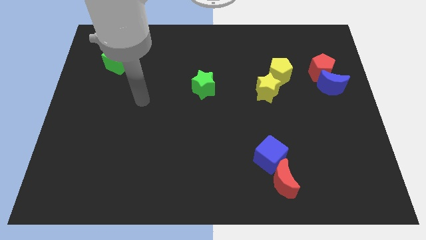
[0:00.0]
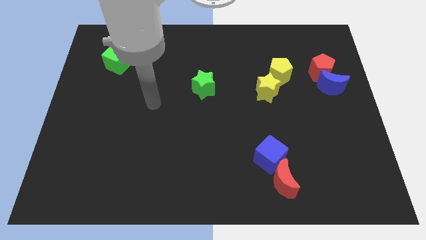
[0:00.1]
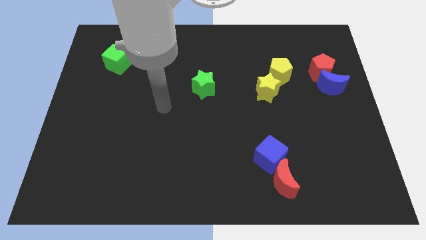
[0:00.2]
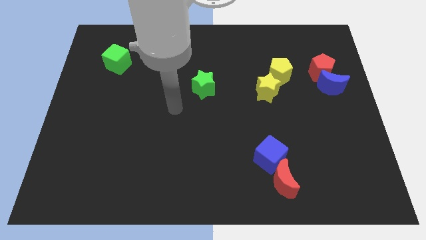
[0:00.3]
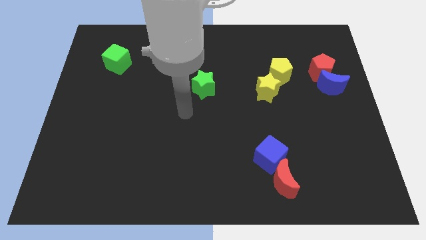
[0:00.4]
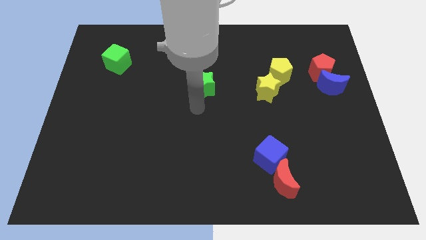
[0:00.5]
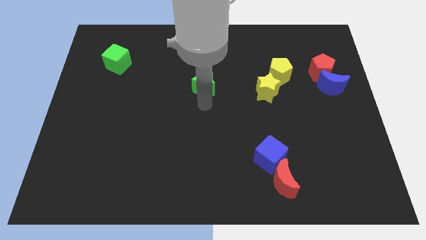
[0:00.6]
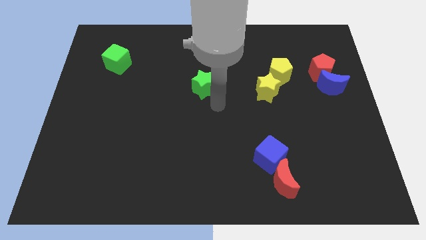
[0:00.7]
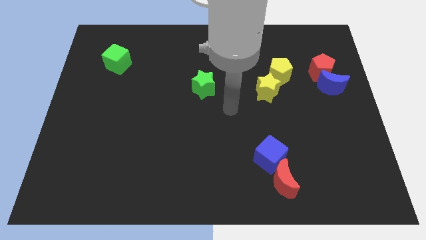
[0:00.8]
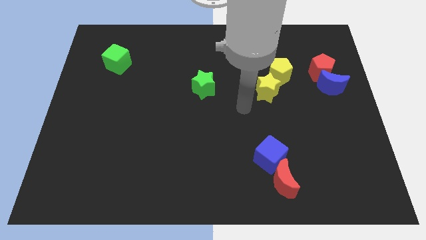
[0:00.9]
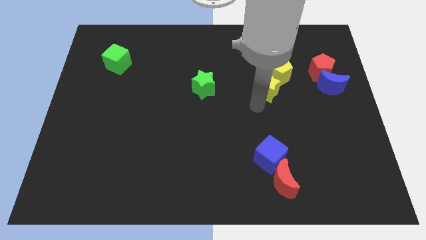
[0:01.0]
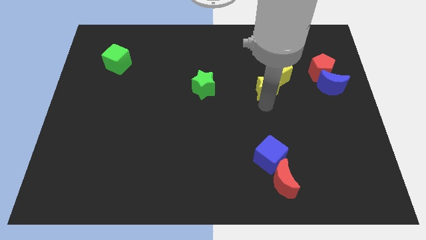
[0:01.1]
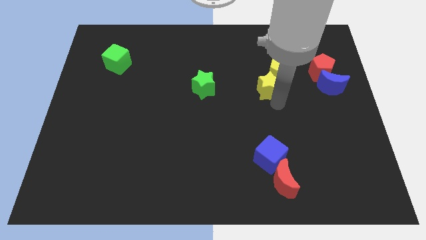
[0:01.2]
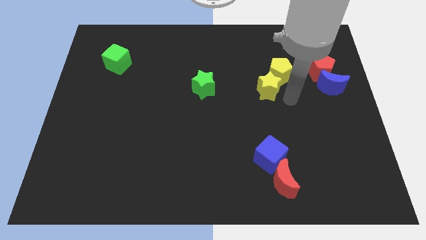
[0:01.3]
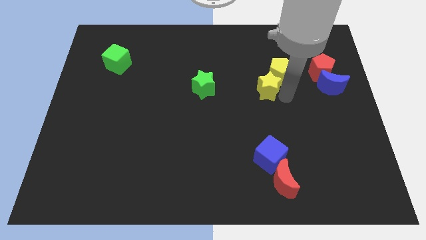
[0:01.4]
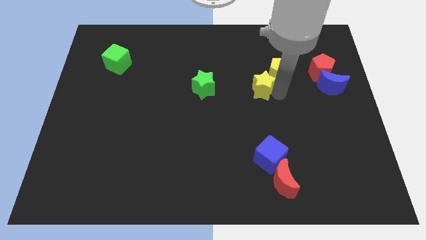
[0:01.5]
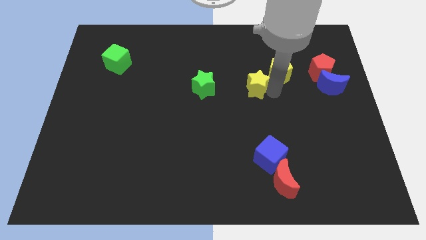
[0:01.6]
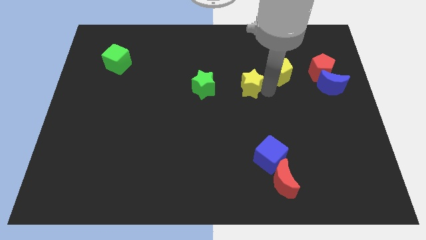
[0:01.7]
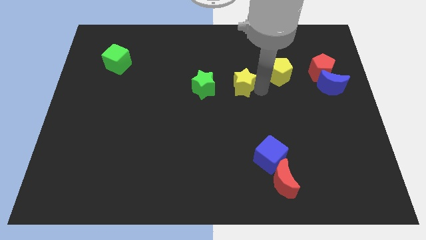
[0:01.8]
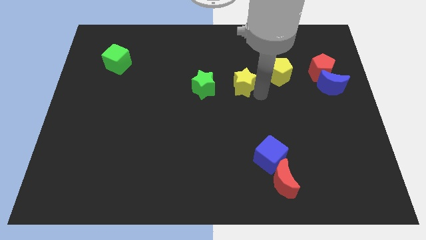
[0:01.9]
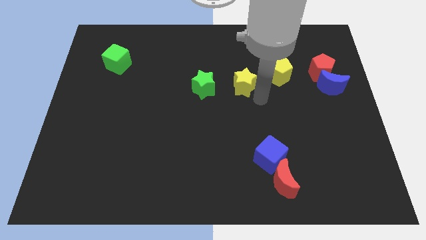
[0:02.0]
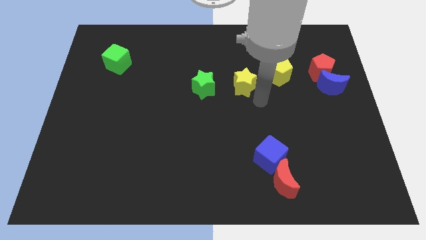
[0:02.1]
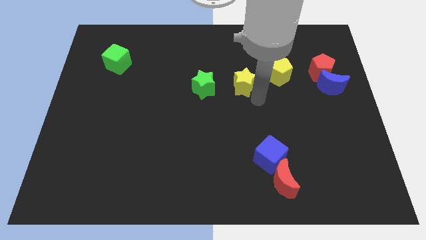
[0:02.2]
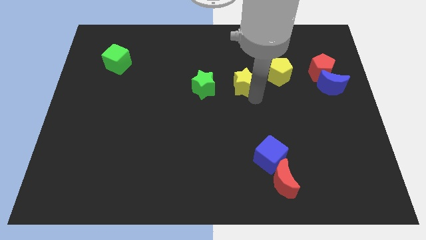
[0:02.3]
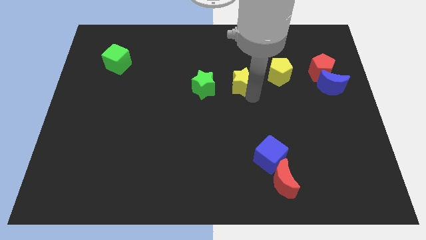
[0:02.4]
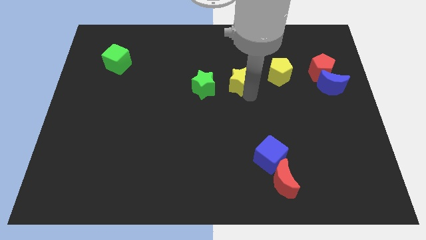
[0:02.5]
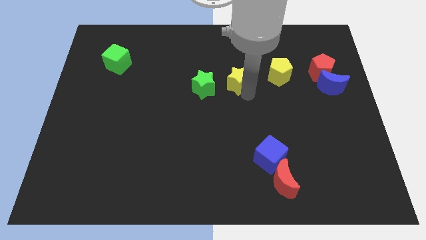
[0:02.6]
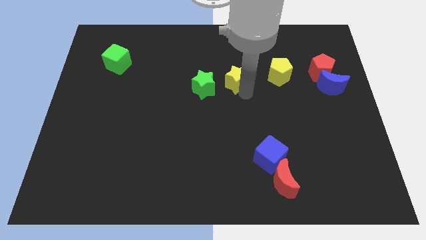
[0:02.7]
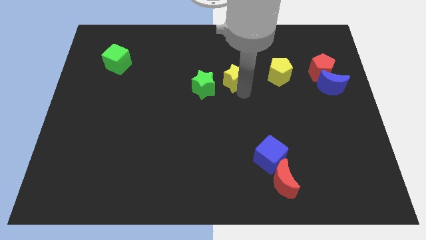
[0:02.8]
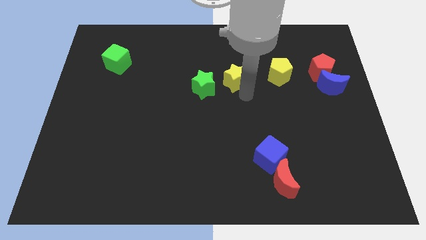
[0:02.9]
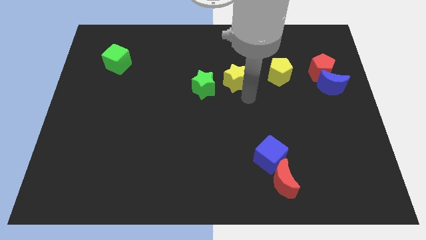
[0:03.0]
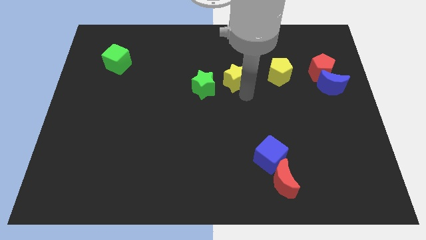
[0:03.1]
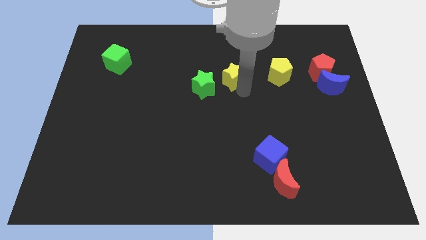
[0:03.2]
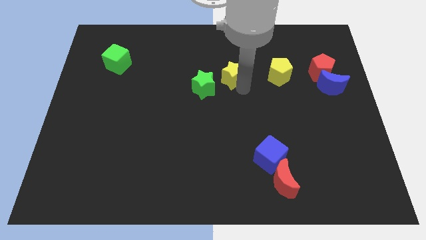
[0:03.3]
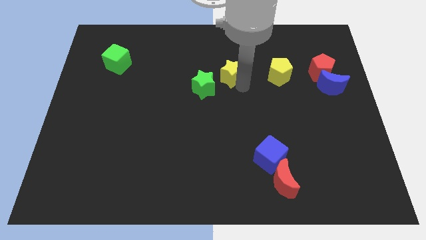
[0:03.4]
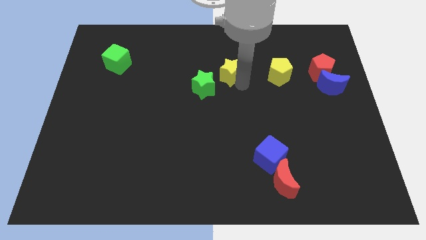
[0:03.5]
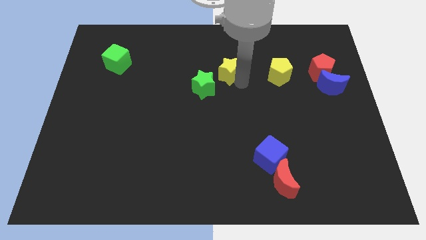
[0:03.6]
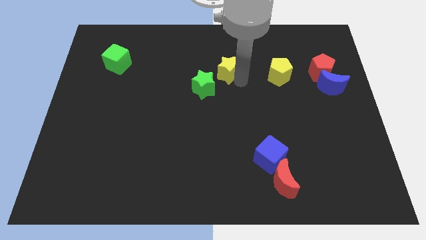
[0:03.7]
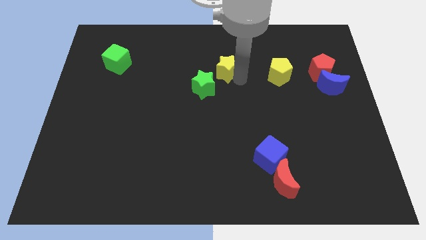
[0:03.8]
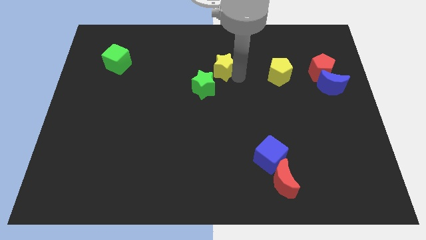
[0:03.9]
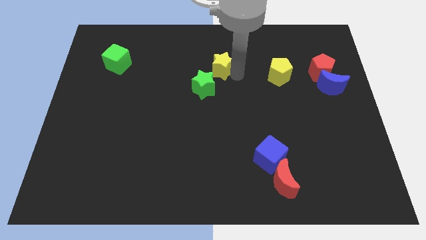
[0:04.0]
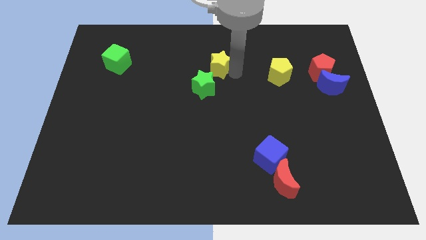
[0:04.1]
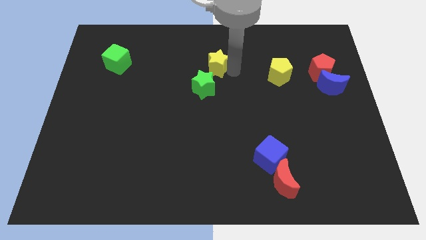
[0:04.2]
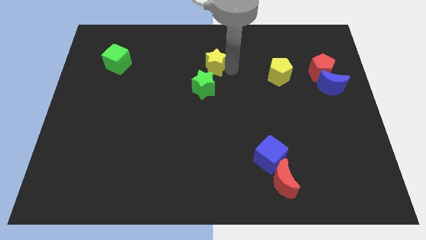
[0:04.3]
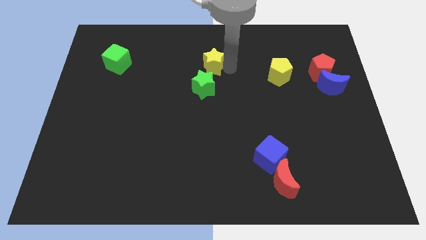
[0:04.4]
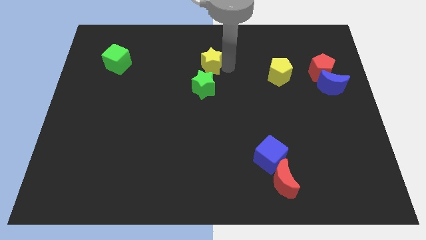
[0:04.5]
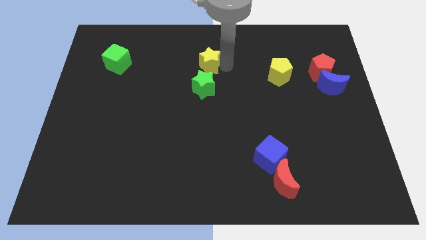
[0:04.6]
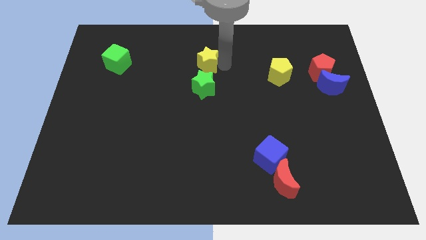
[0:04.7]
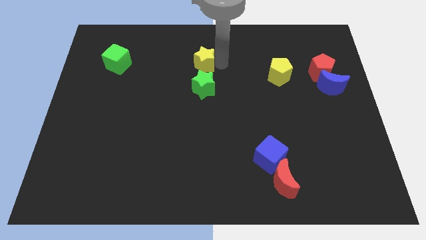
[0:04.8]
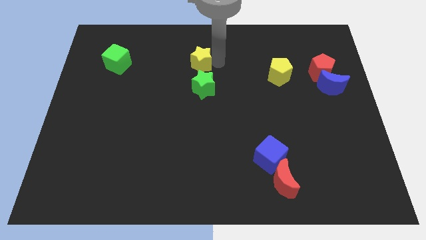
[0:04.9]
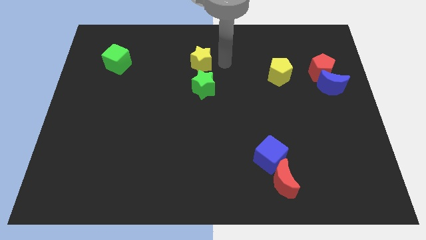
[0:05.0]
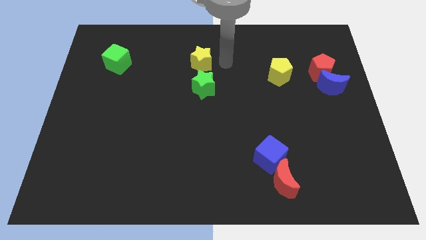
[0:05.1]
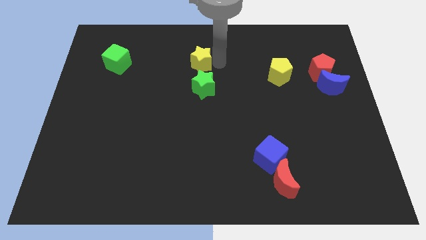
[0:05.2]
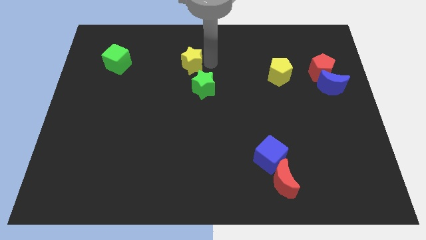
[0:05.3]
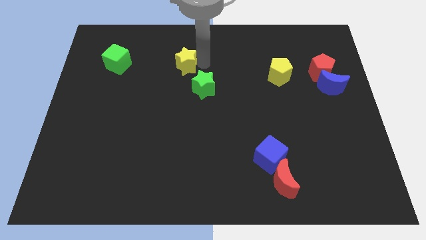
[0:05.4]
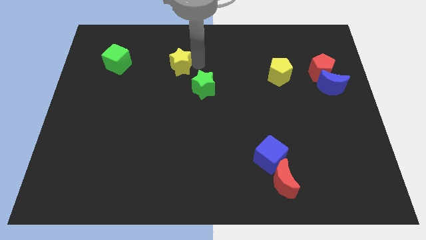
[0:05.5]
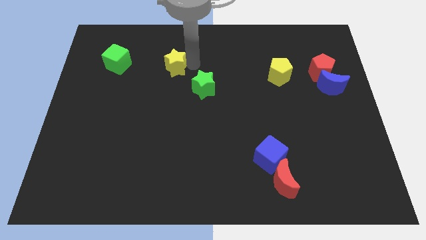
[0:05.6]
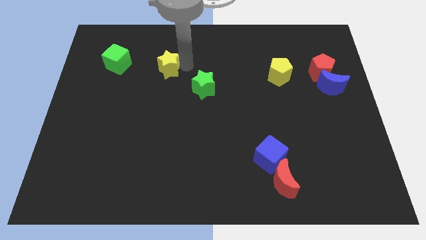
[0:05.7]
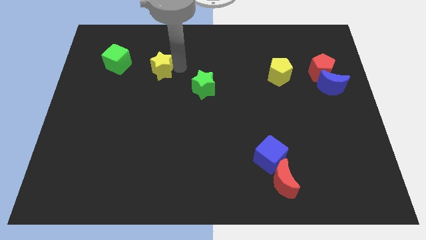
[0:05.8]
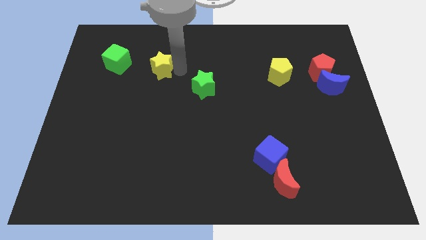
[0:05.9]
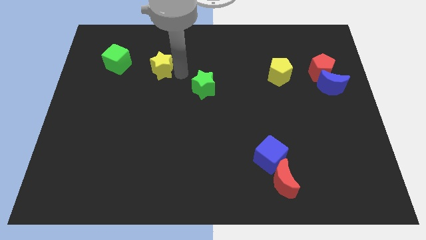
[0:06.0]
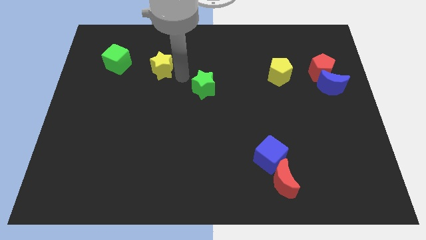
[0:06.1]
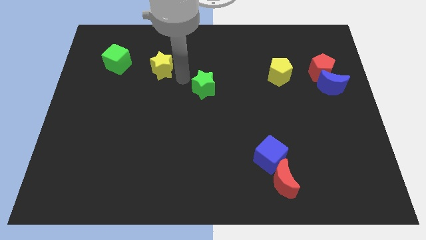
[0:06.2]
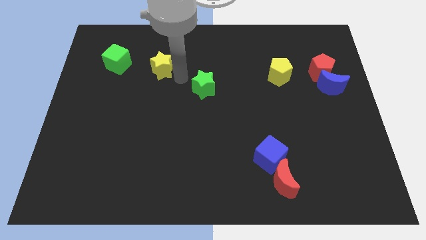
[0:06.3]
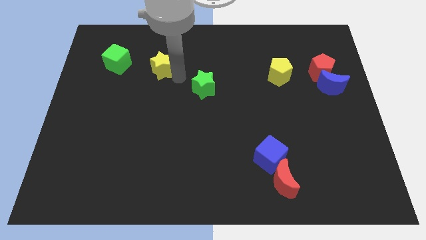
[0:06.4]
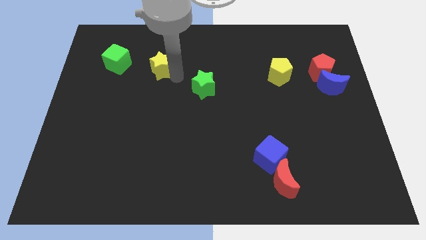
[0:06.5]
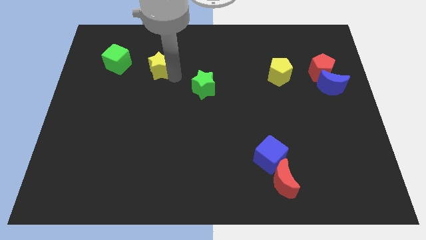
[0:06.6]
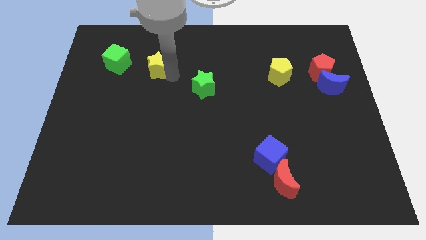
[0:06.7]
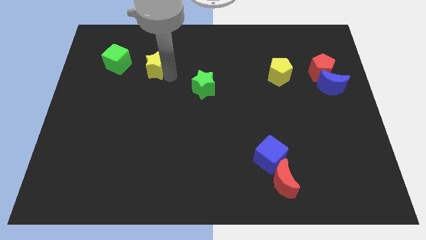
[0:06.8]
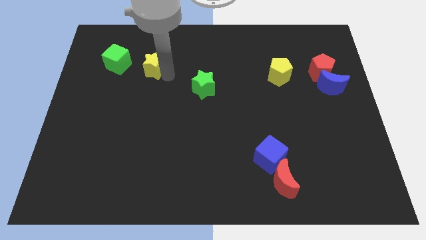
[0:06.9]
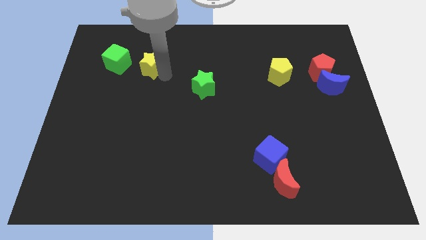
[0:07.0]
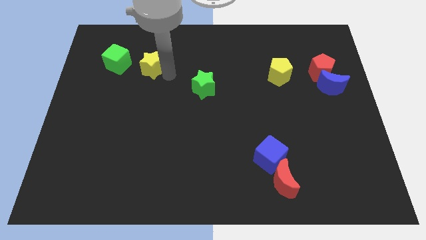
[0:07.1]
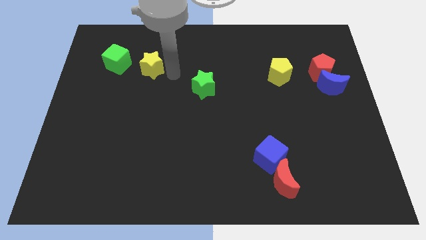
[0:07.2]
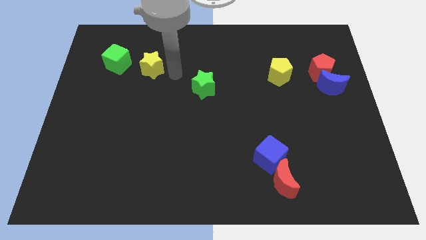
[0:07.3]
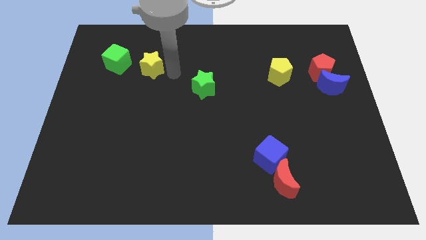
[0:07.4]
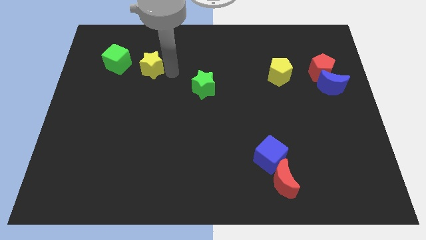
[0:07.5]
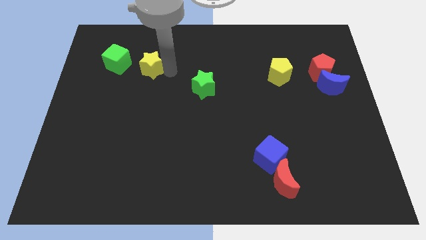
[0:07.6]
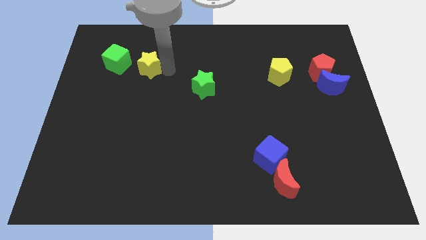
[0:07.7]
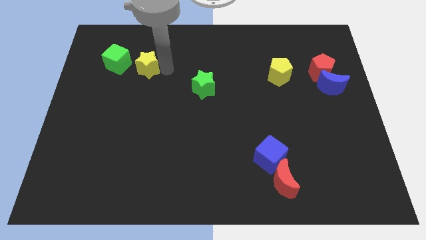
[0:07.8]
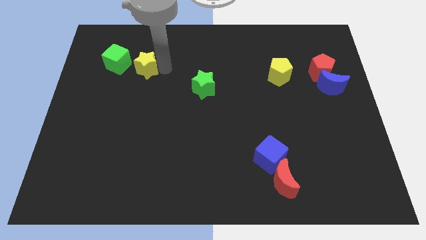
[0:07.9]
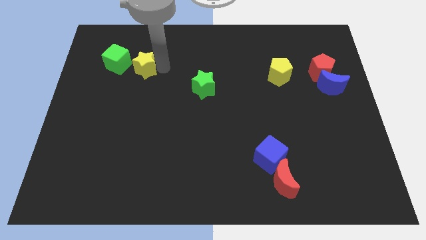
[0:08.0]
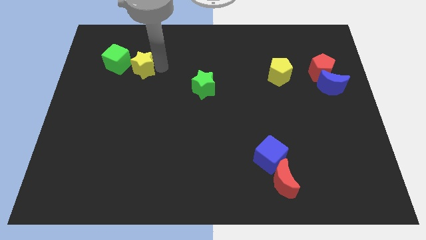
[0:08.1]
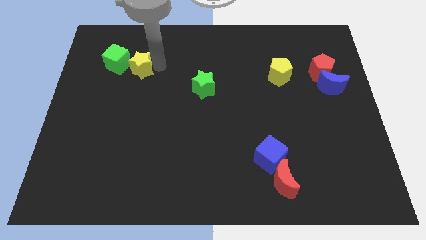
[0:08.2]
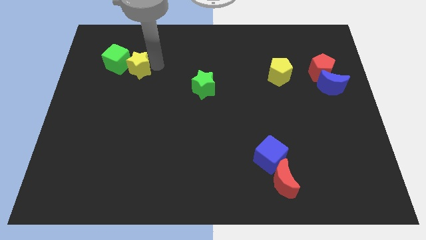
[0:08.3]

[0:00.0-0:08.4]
slide the yellow star close to the green cube
